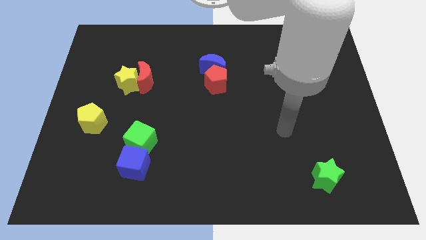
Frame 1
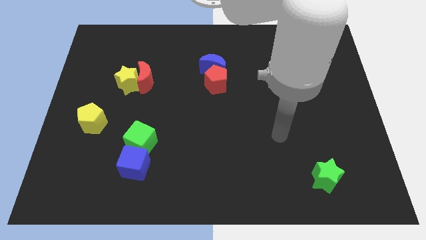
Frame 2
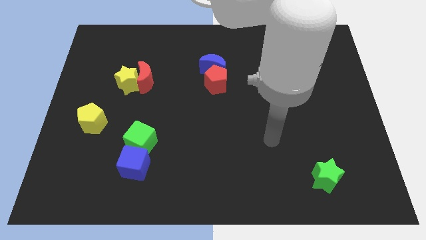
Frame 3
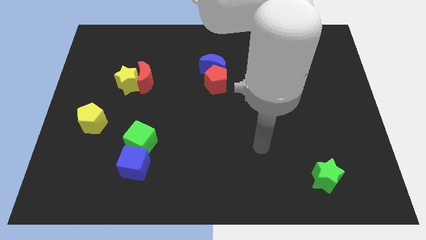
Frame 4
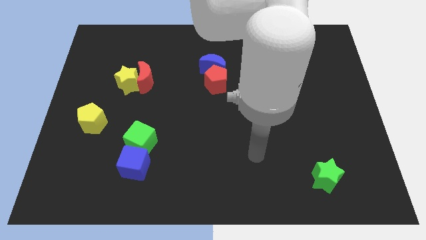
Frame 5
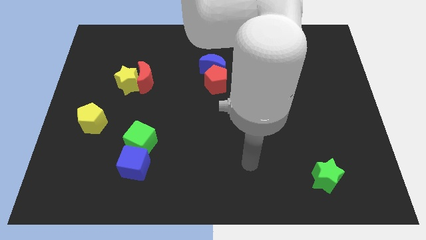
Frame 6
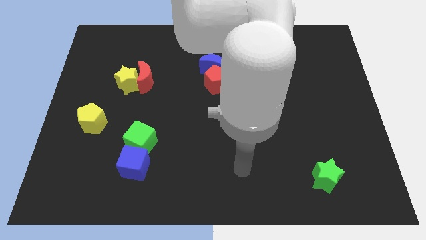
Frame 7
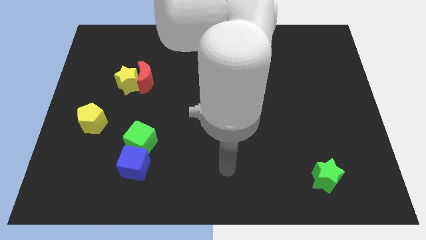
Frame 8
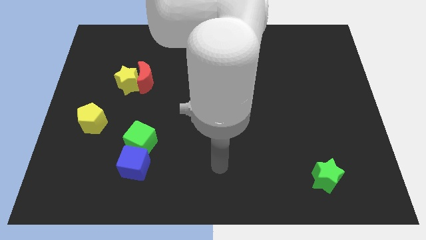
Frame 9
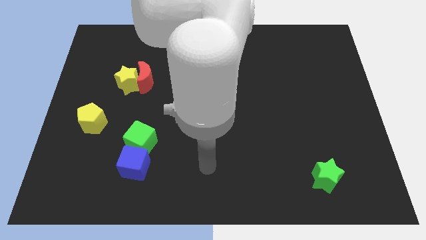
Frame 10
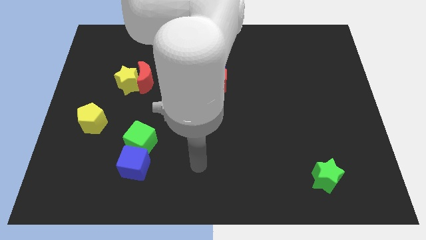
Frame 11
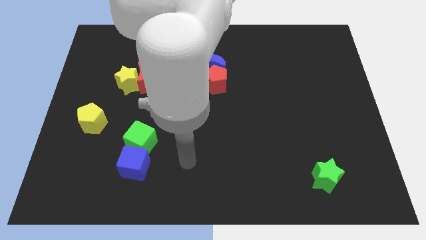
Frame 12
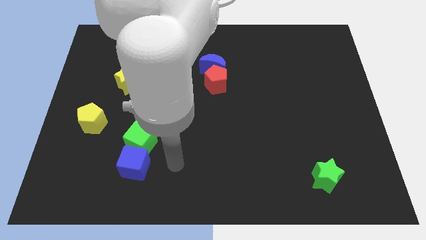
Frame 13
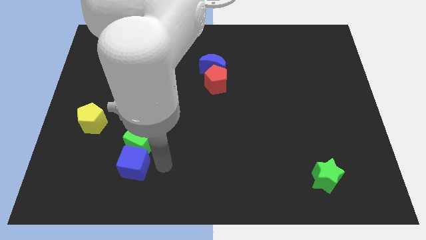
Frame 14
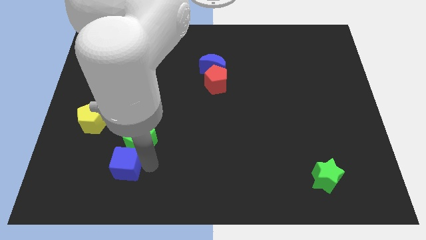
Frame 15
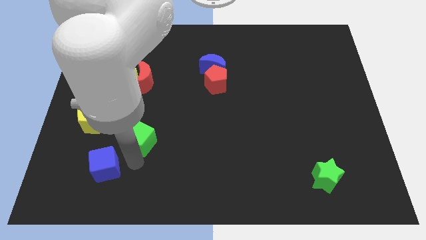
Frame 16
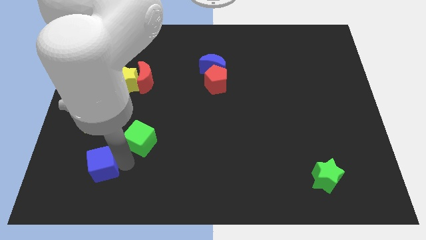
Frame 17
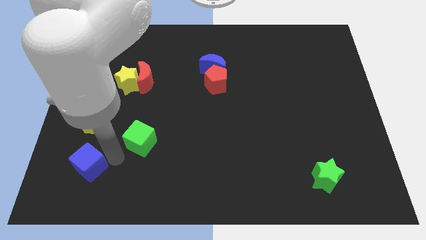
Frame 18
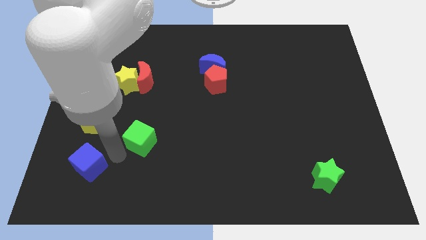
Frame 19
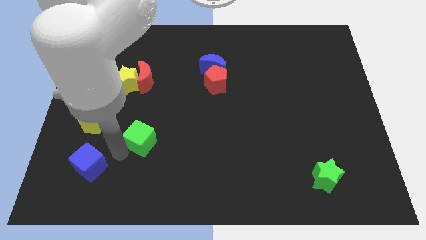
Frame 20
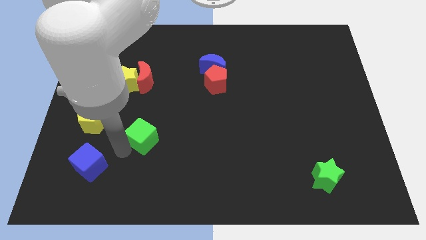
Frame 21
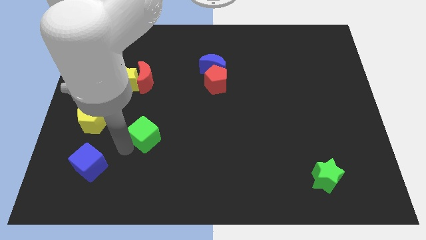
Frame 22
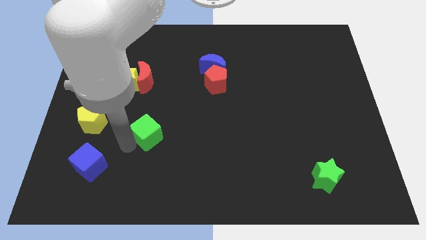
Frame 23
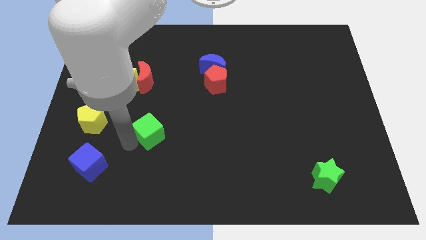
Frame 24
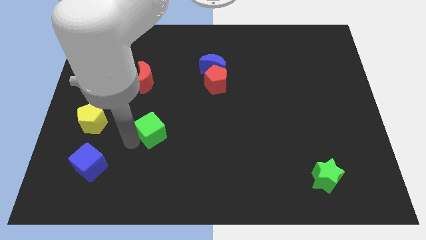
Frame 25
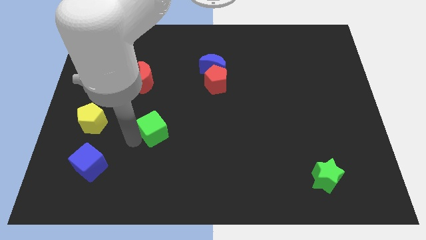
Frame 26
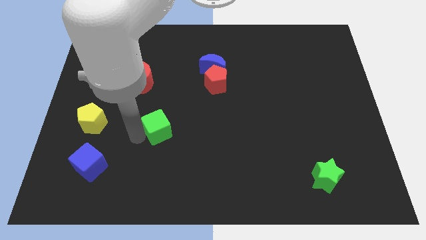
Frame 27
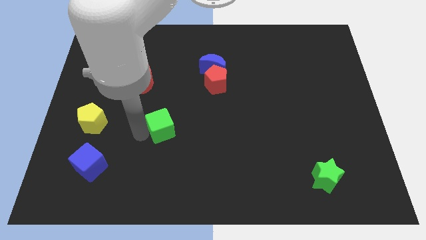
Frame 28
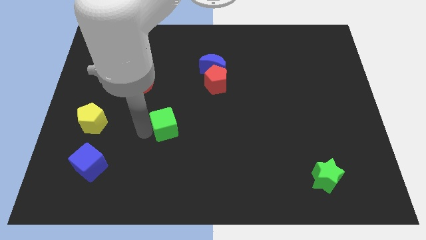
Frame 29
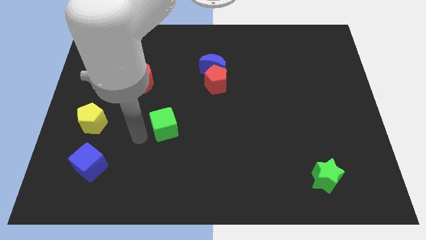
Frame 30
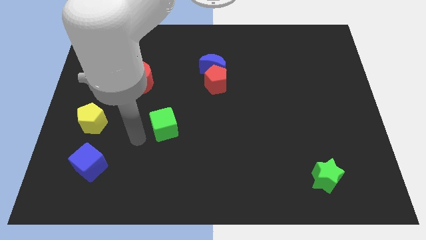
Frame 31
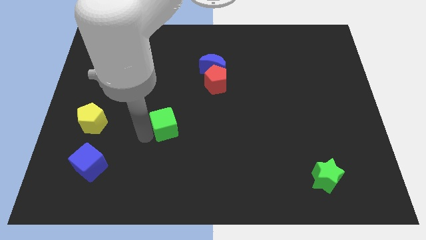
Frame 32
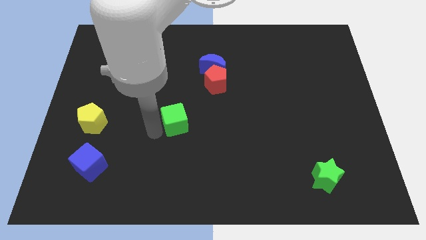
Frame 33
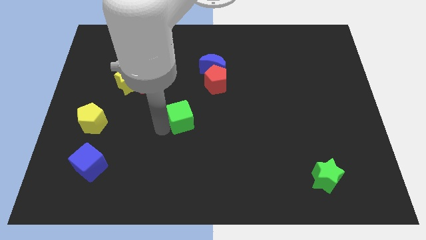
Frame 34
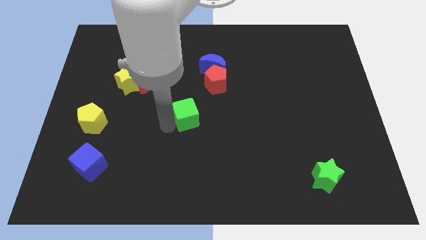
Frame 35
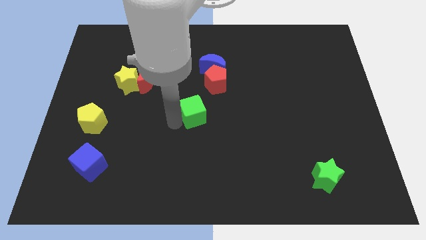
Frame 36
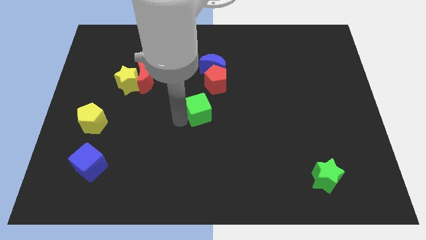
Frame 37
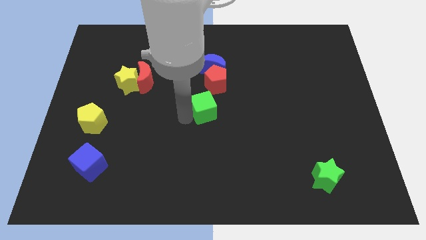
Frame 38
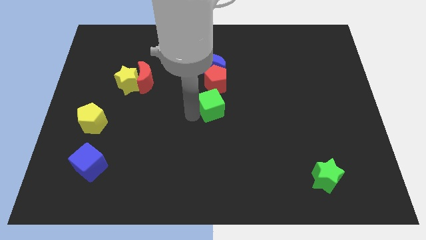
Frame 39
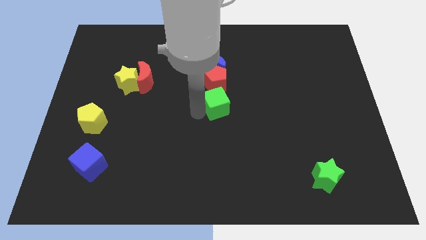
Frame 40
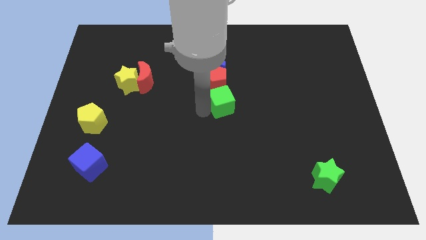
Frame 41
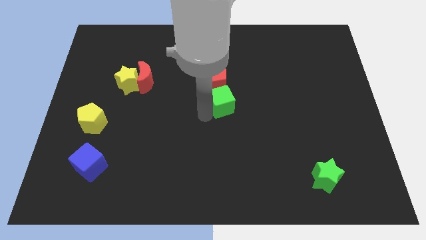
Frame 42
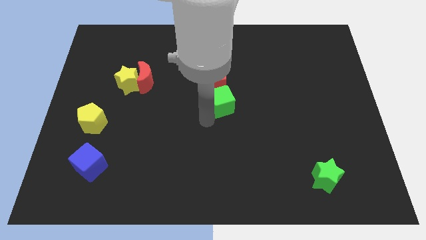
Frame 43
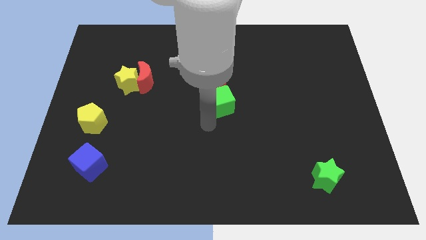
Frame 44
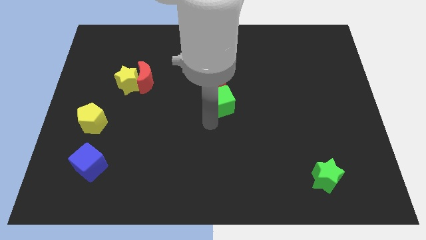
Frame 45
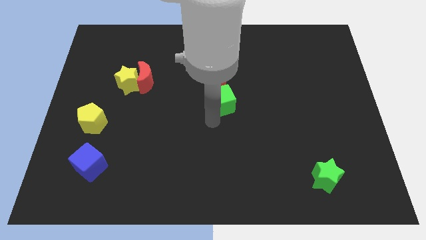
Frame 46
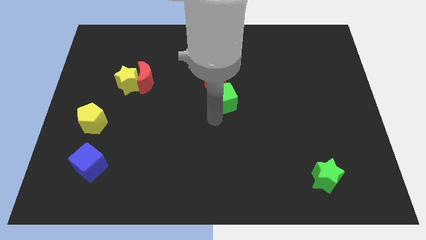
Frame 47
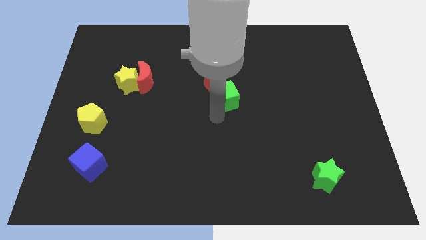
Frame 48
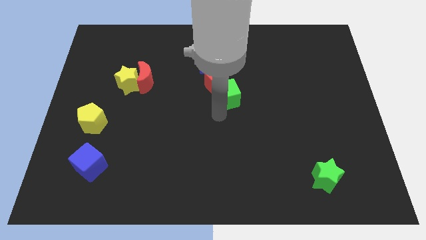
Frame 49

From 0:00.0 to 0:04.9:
push the green cube diagonally down and to the right of the blue moon

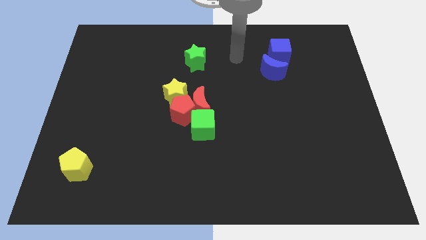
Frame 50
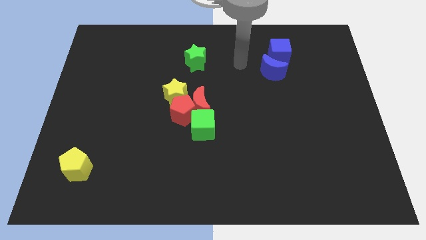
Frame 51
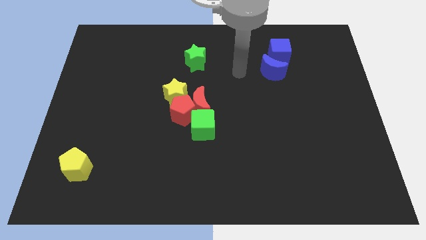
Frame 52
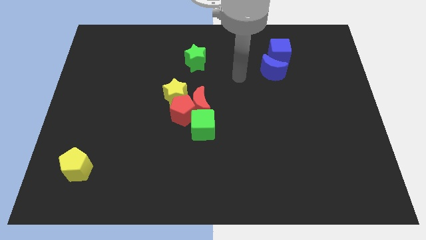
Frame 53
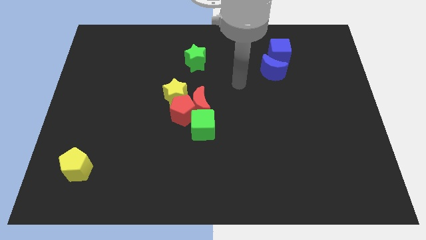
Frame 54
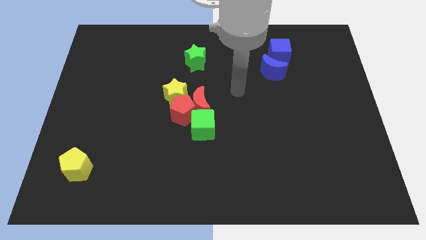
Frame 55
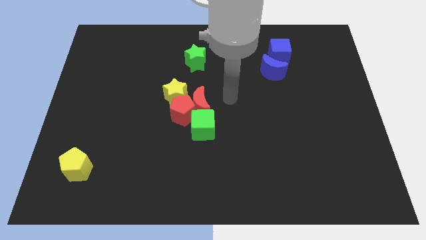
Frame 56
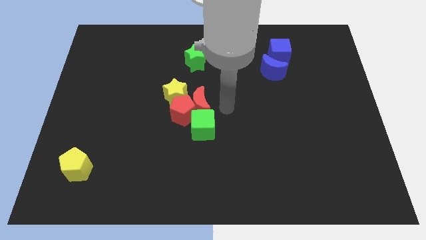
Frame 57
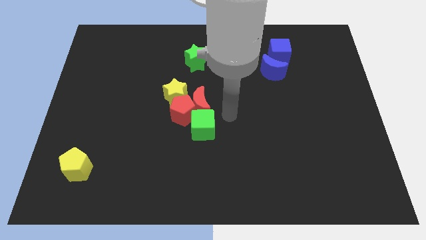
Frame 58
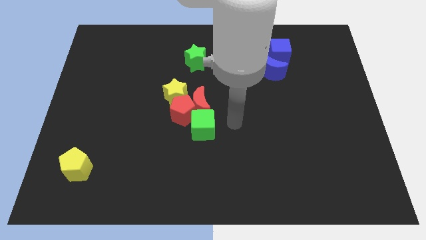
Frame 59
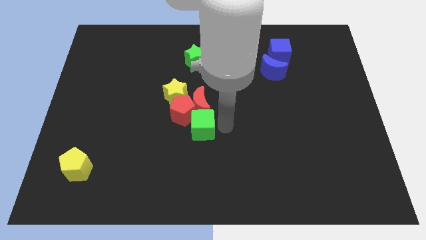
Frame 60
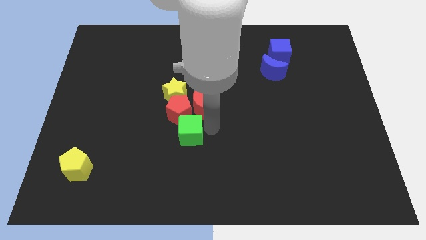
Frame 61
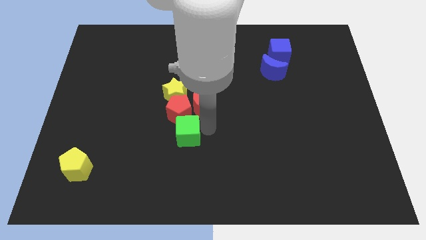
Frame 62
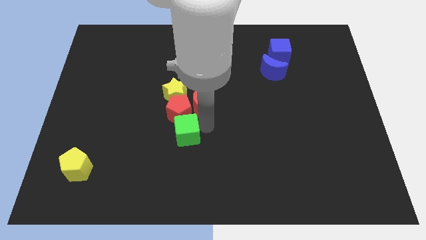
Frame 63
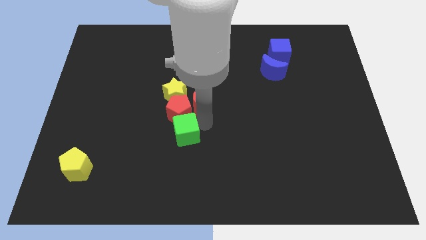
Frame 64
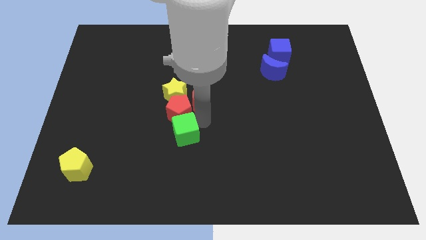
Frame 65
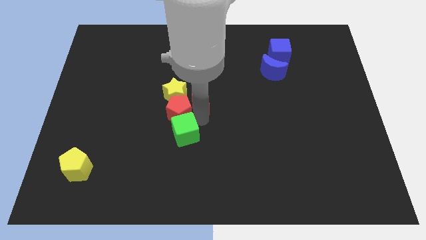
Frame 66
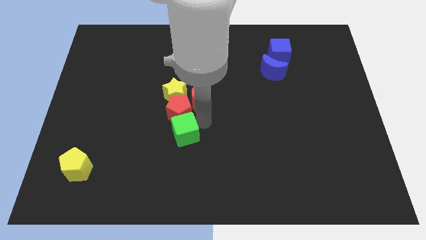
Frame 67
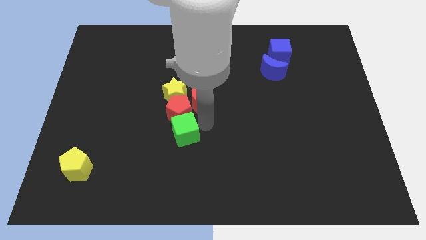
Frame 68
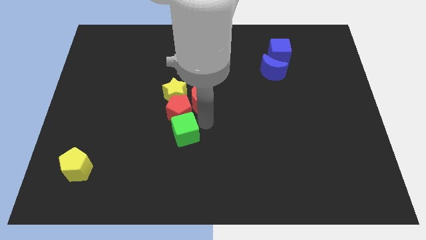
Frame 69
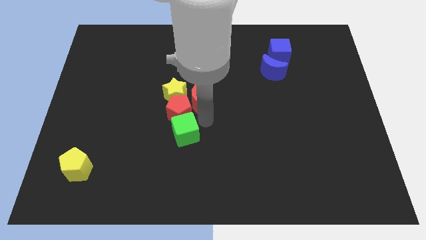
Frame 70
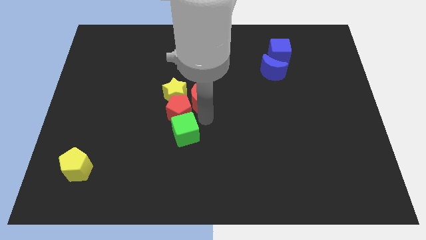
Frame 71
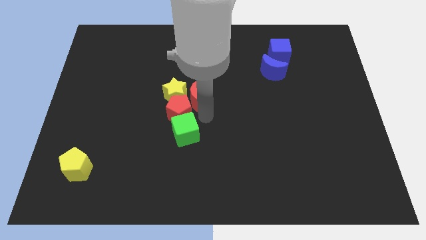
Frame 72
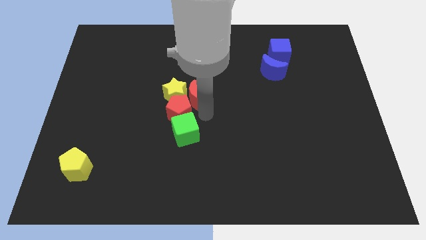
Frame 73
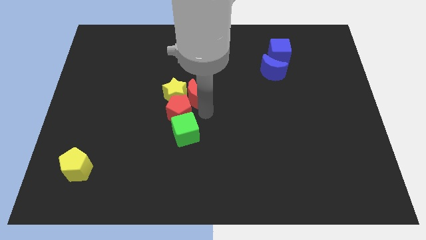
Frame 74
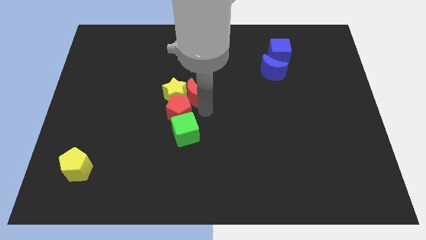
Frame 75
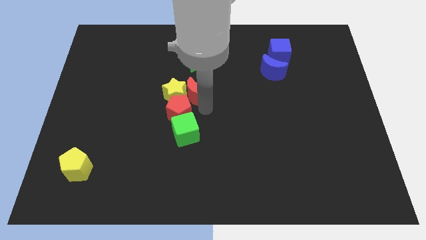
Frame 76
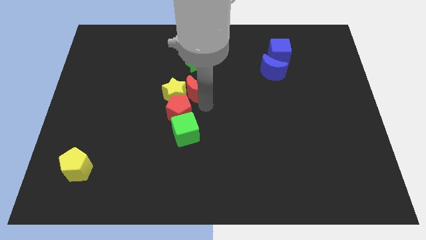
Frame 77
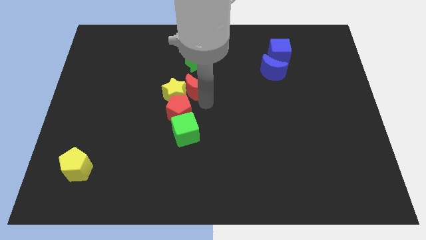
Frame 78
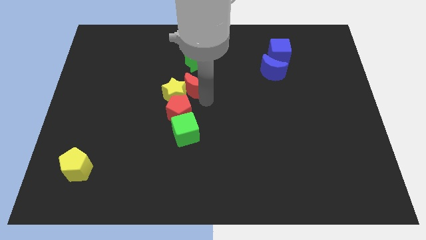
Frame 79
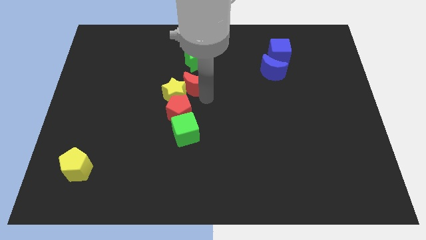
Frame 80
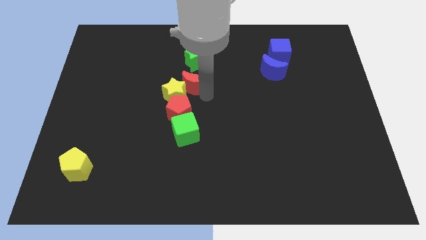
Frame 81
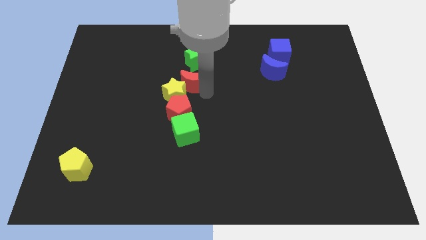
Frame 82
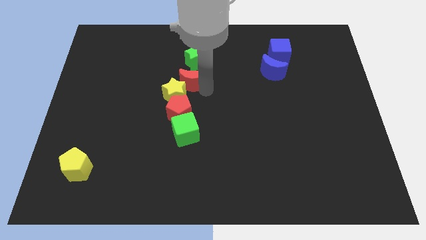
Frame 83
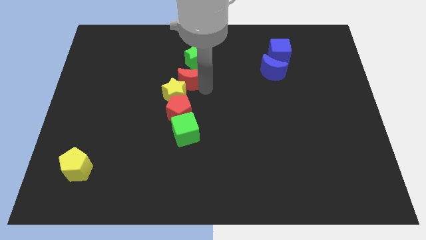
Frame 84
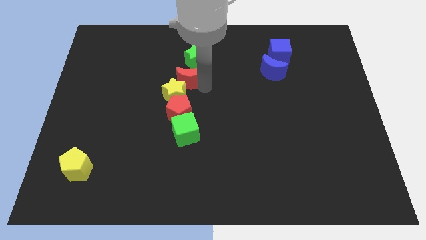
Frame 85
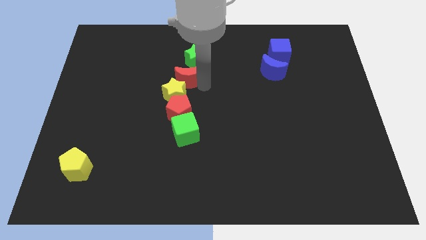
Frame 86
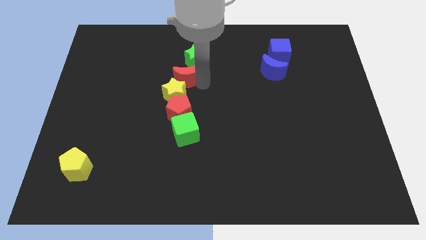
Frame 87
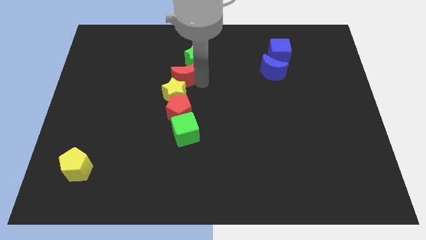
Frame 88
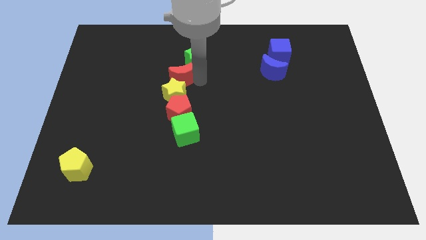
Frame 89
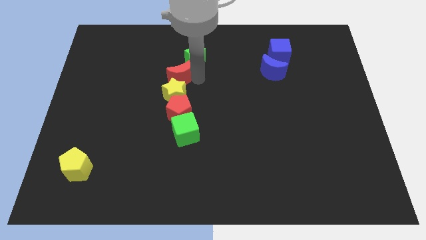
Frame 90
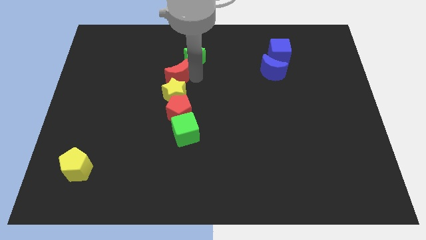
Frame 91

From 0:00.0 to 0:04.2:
move the red moon to the top left of the yellow star
